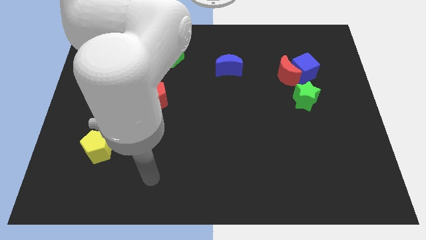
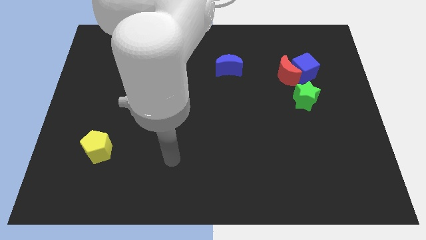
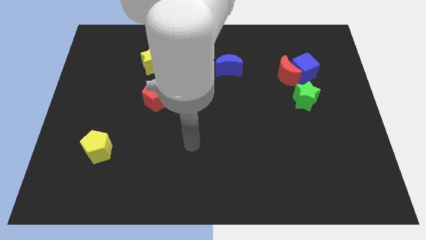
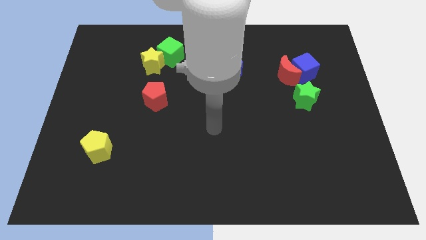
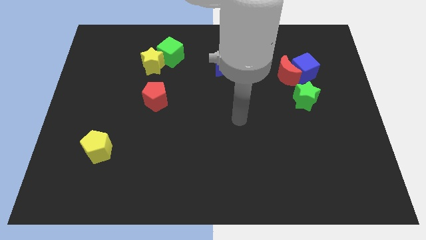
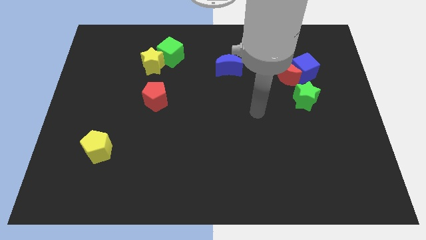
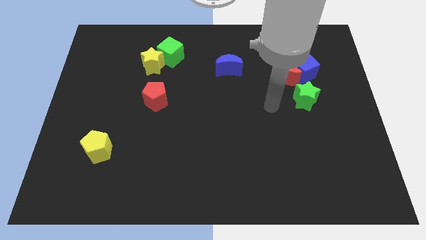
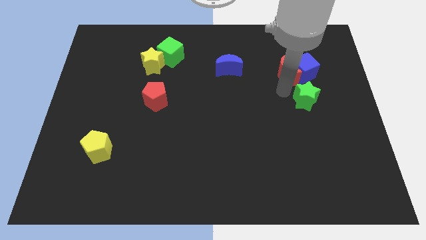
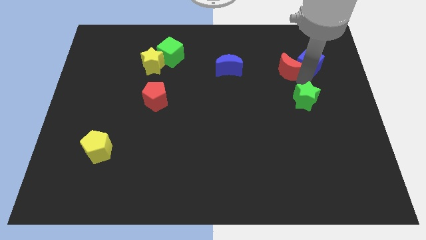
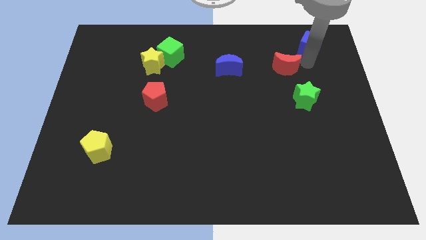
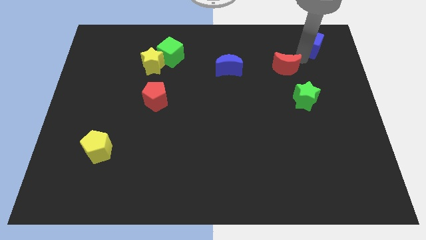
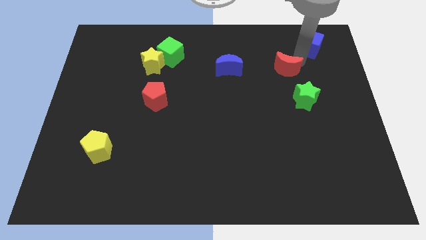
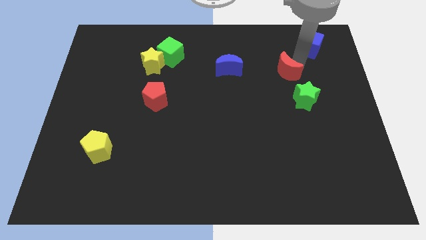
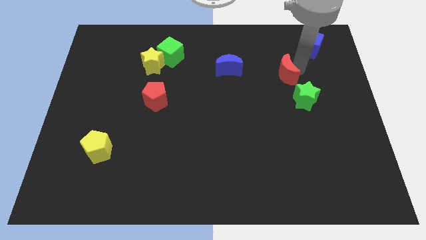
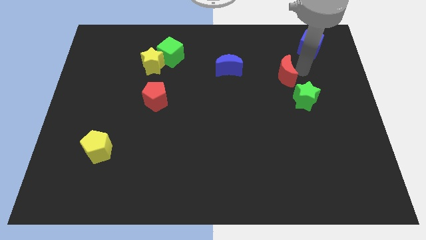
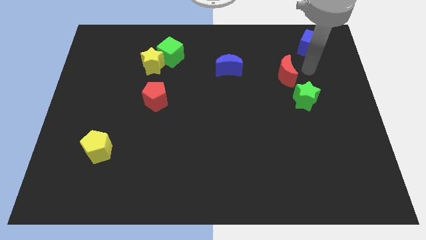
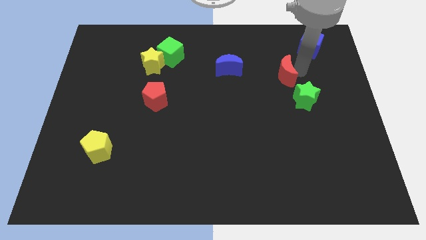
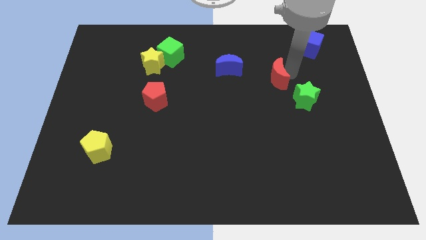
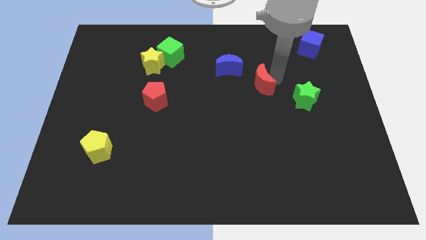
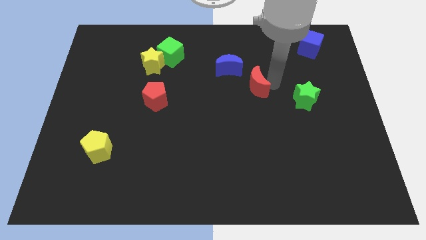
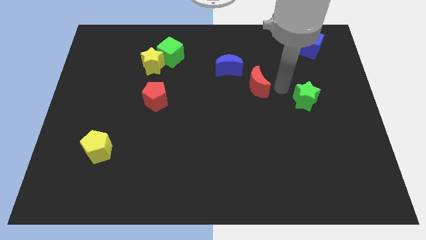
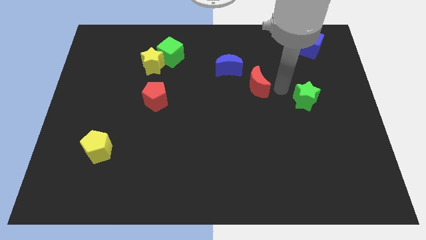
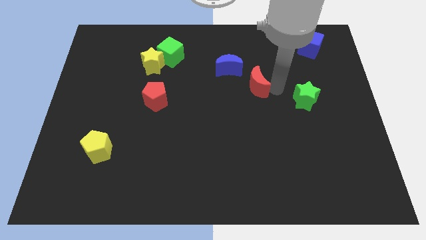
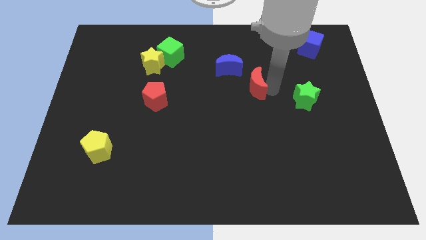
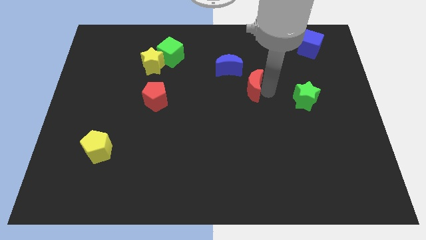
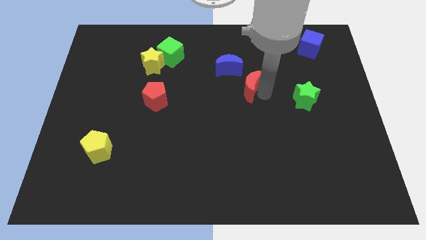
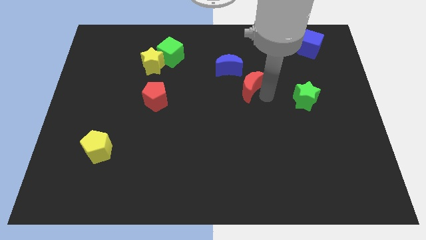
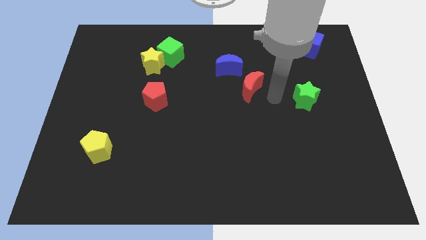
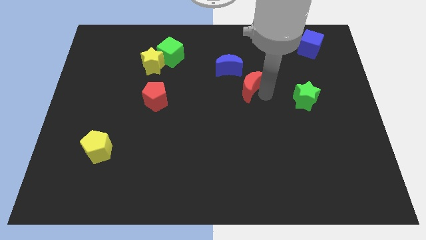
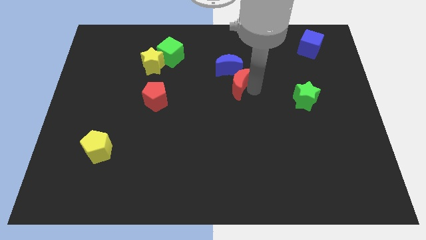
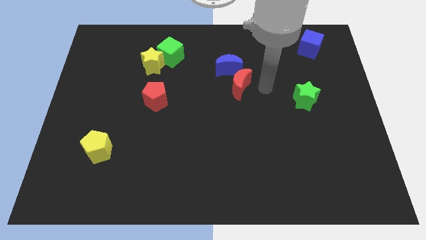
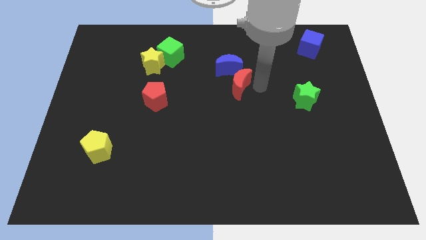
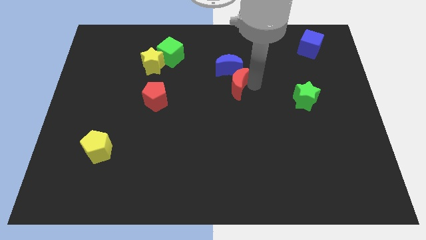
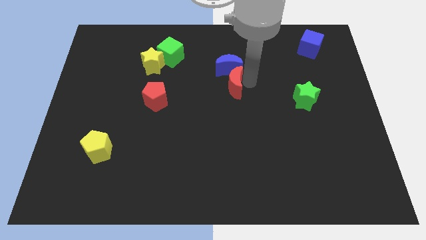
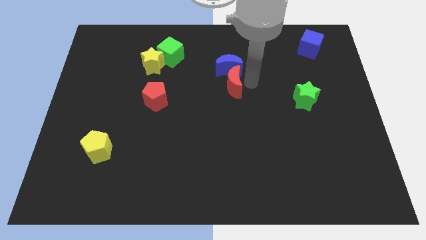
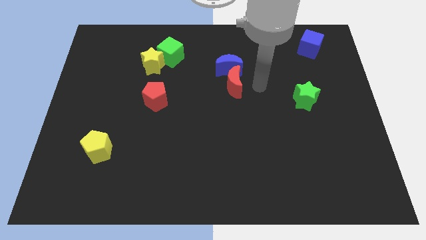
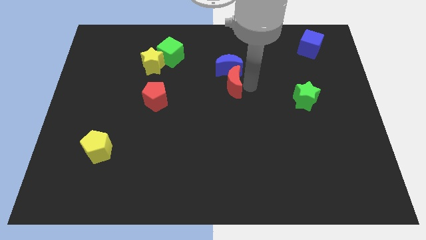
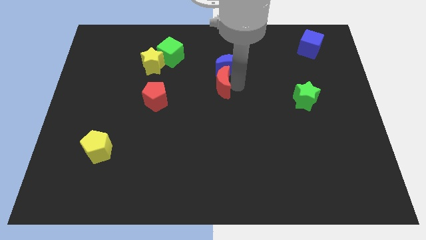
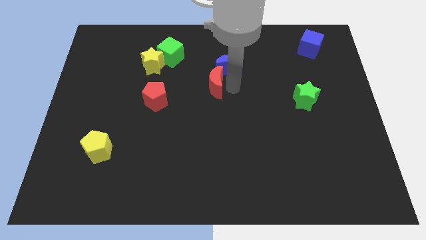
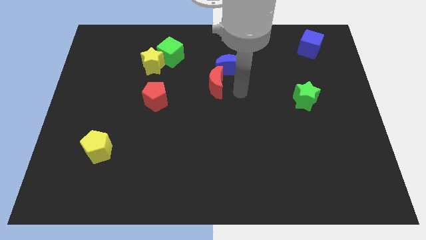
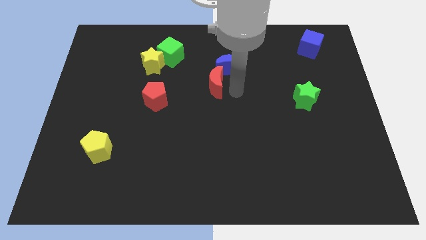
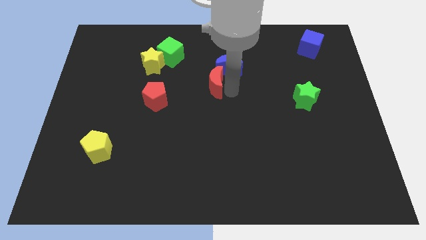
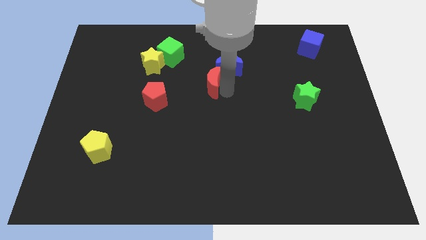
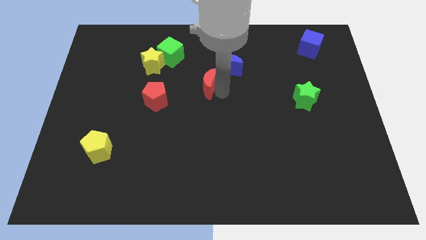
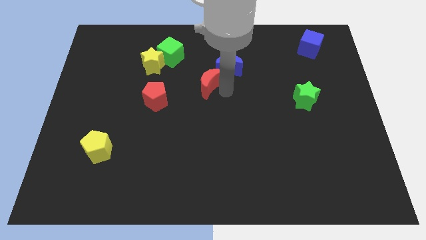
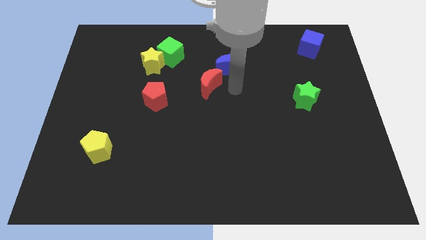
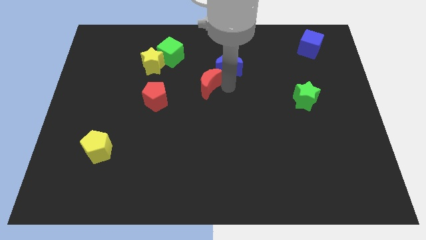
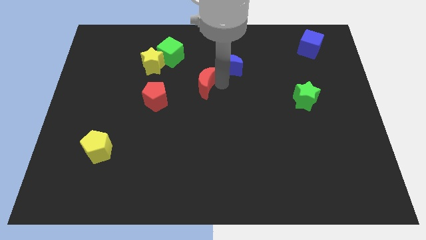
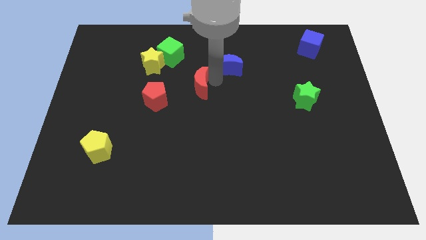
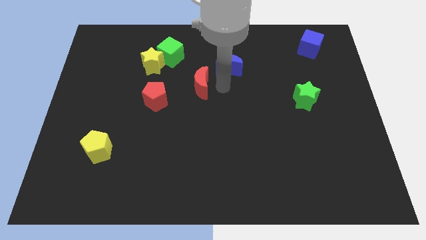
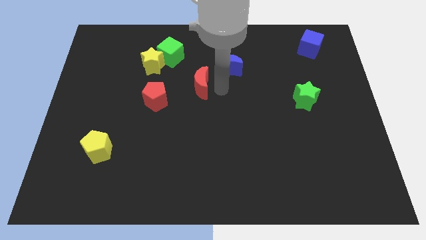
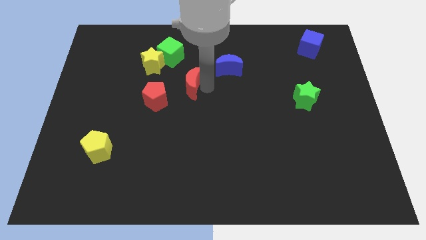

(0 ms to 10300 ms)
move the red moon to the bottom right side of the yellow star

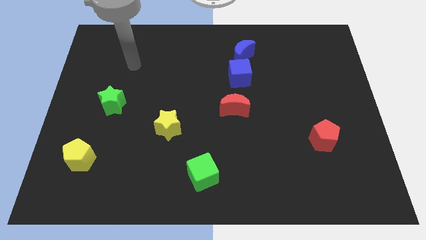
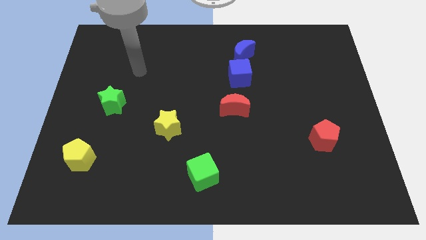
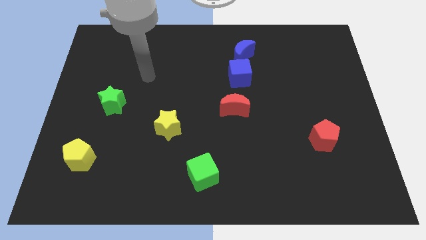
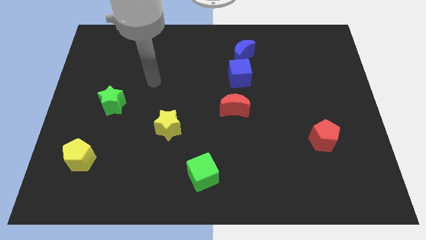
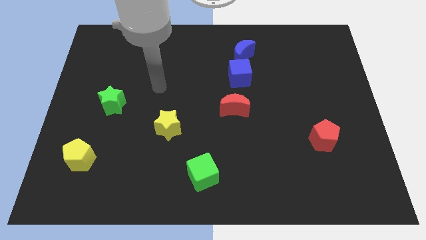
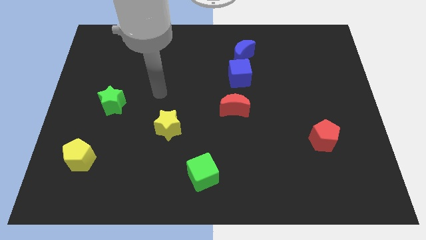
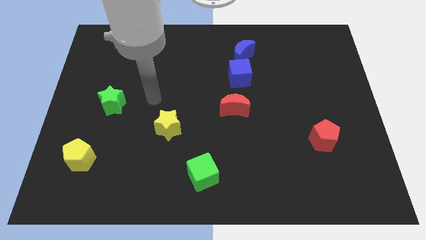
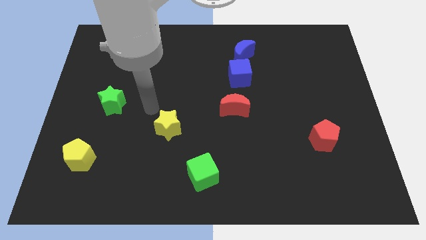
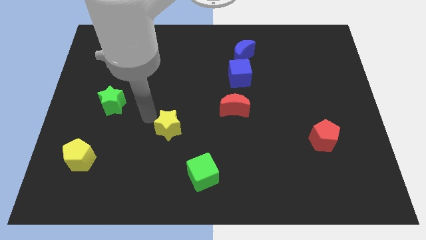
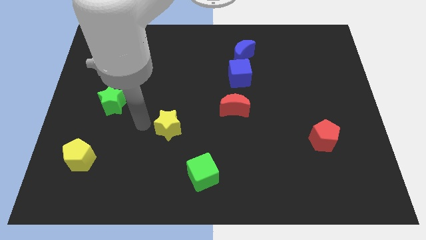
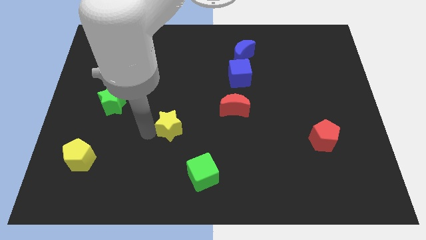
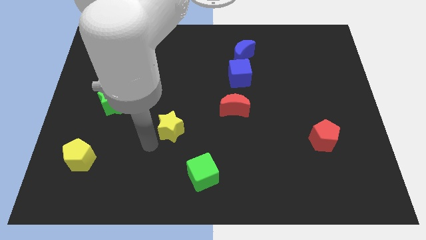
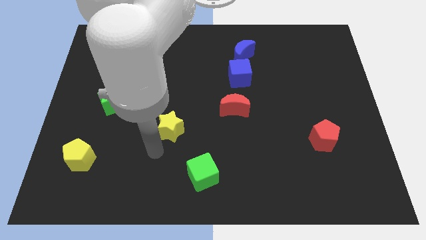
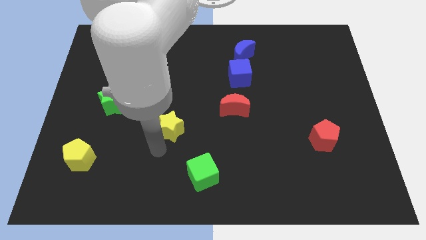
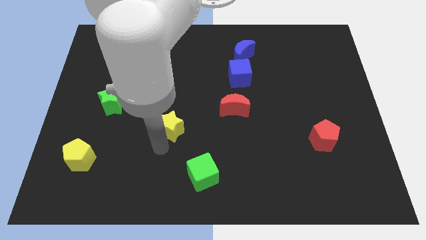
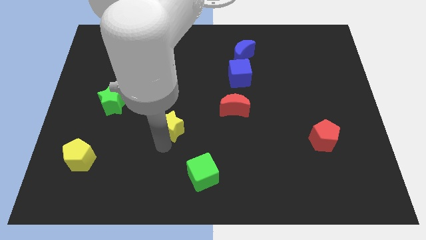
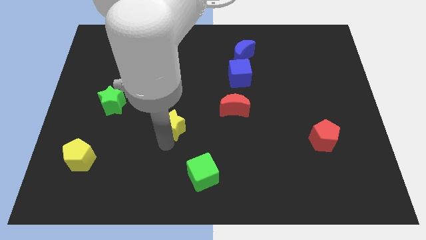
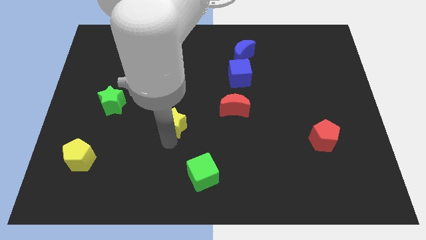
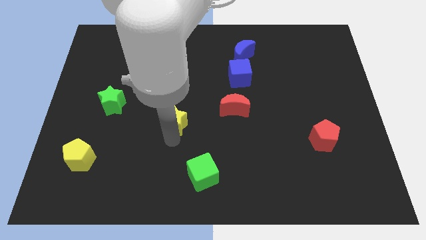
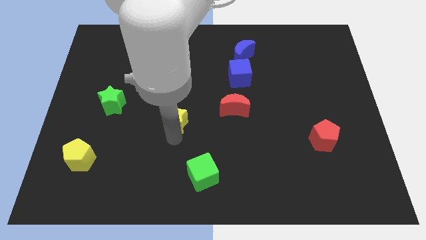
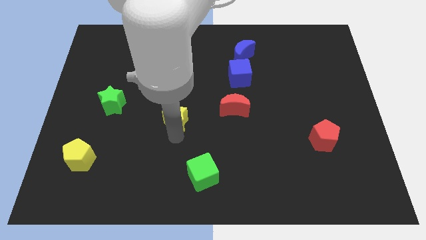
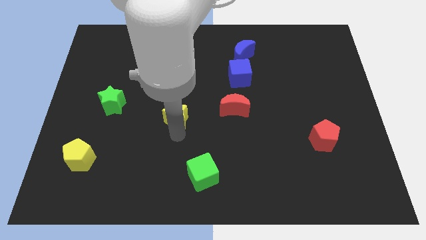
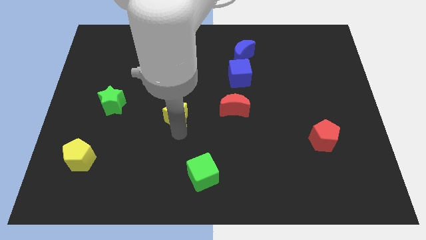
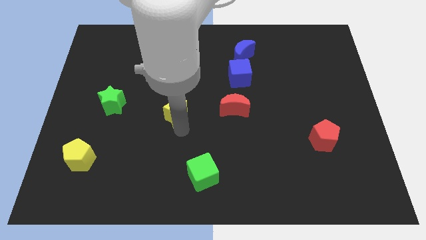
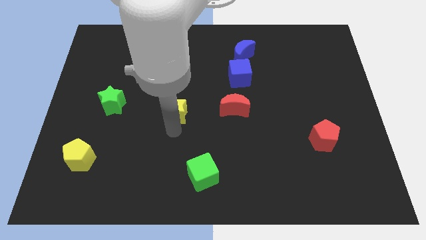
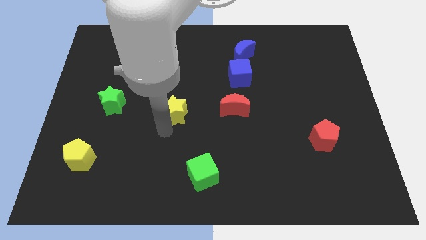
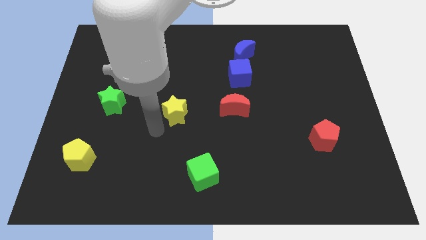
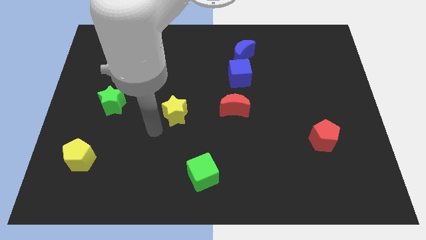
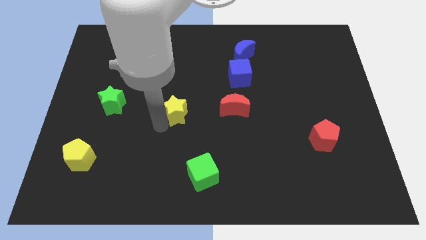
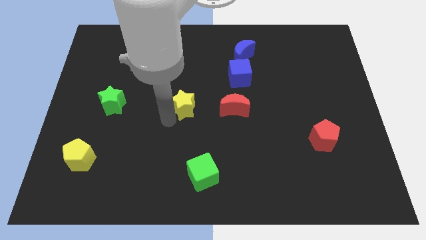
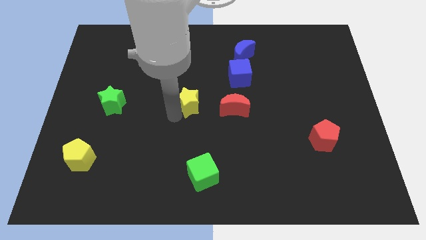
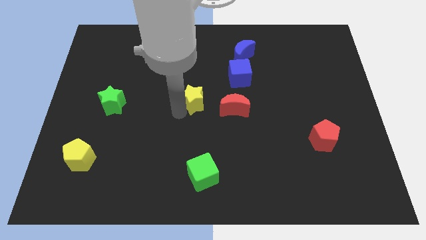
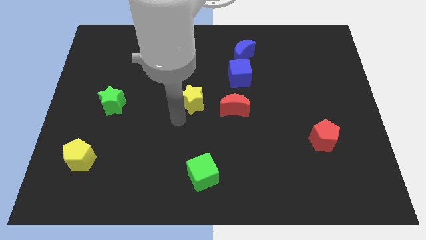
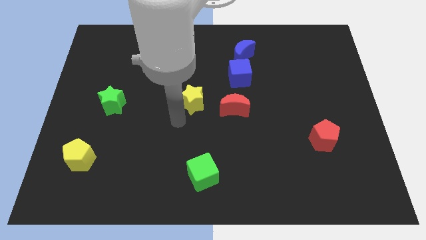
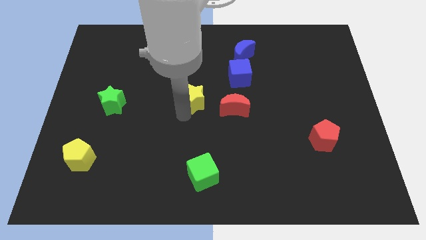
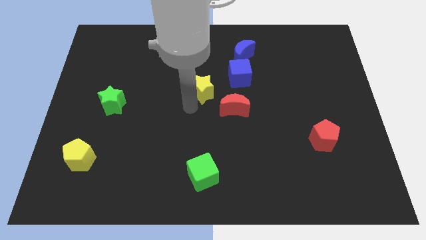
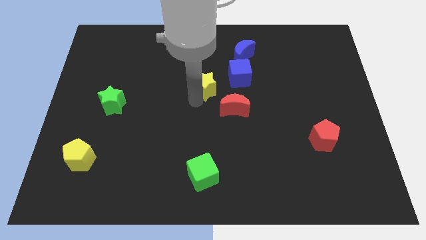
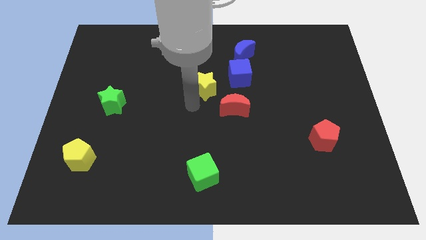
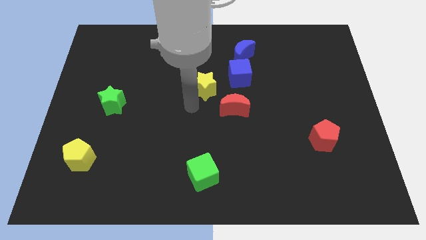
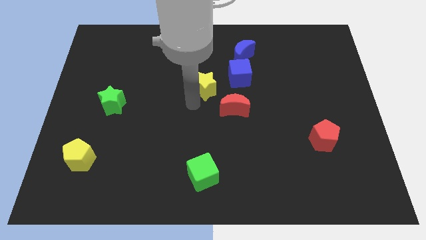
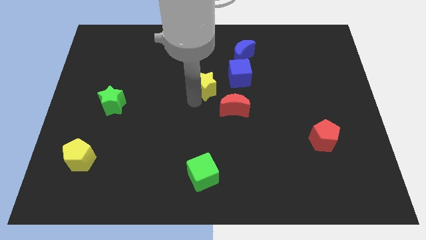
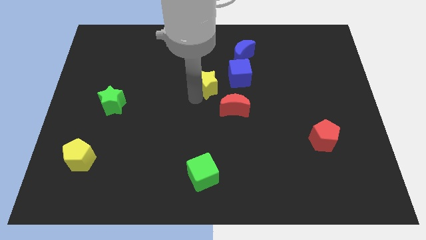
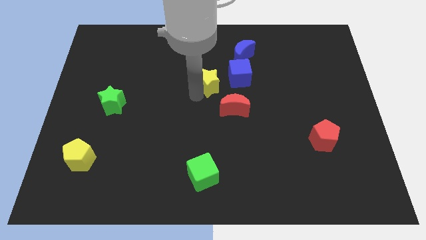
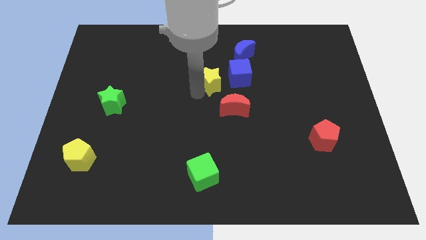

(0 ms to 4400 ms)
push the yellow star diagonally down and to the left of the blue moon
